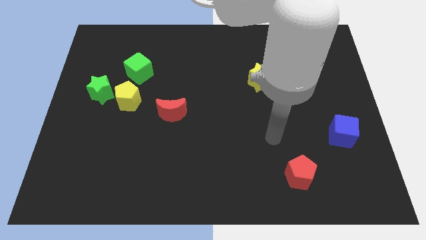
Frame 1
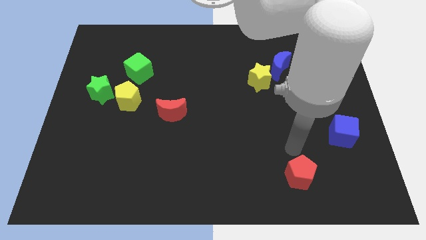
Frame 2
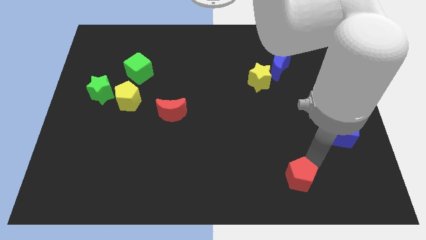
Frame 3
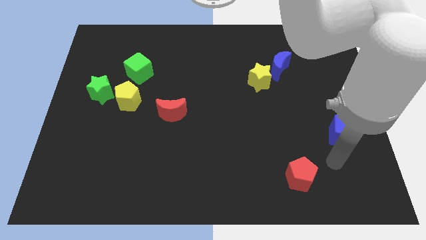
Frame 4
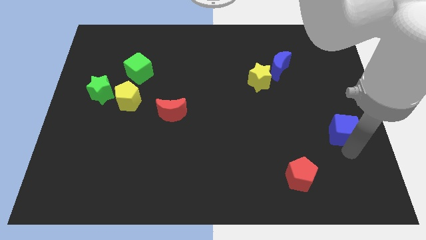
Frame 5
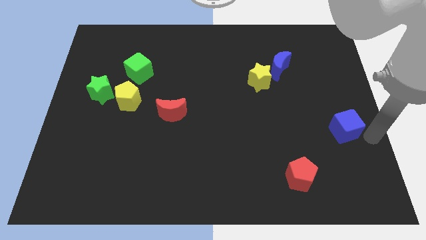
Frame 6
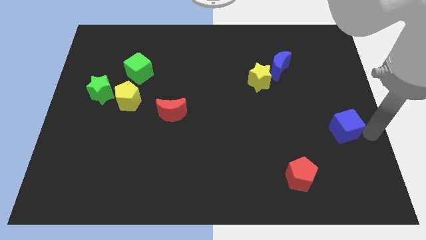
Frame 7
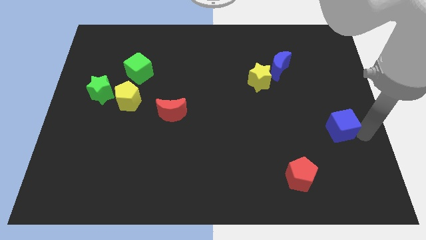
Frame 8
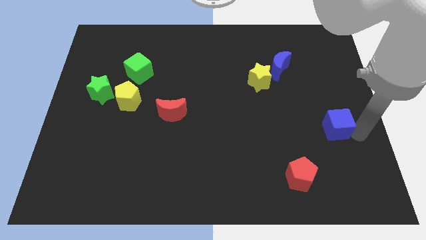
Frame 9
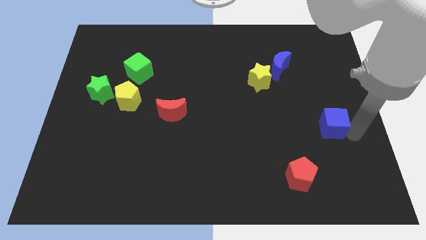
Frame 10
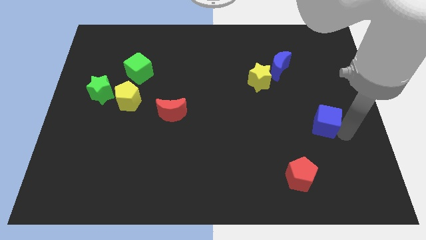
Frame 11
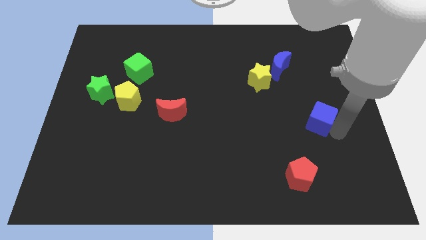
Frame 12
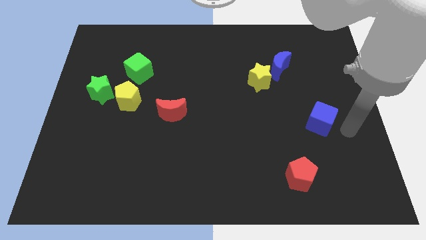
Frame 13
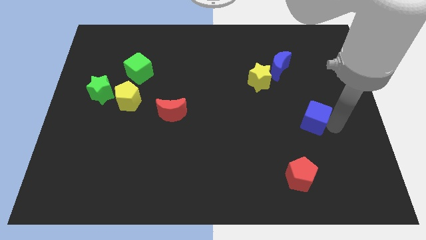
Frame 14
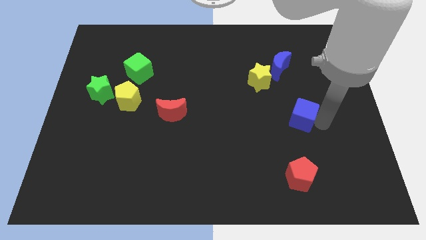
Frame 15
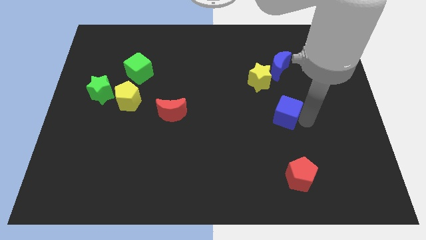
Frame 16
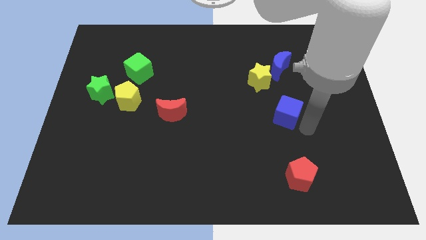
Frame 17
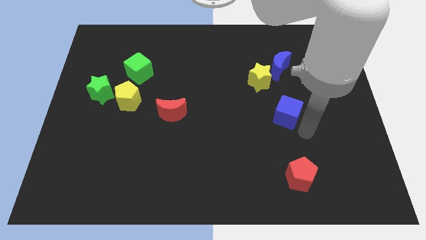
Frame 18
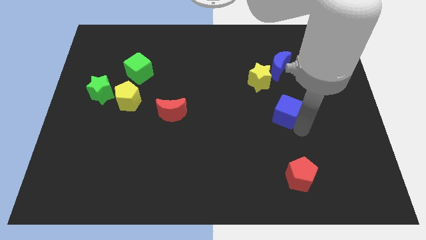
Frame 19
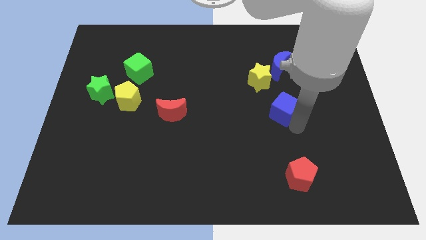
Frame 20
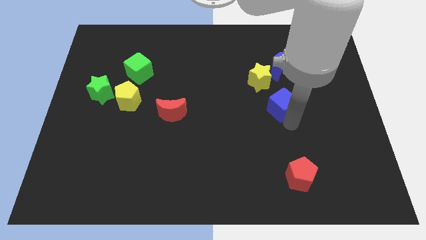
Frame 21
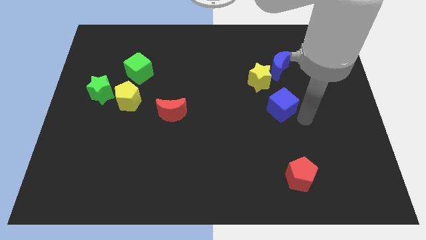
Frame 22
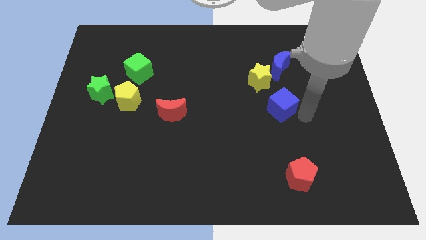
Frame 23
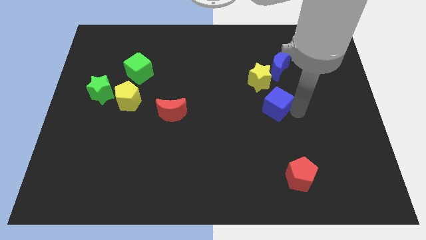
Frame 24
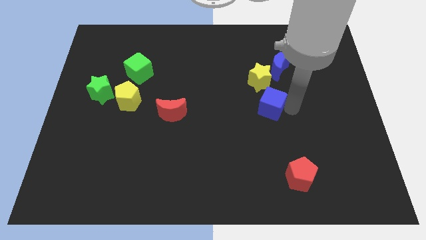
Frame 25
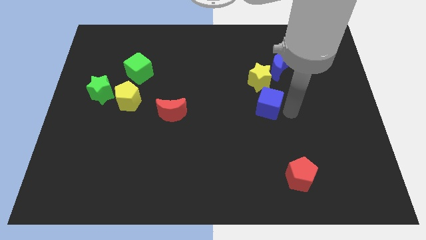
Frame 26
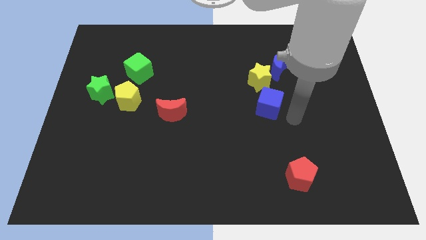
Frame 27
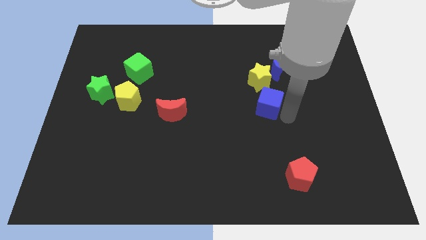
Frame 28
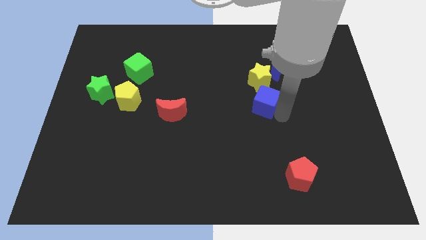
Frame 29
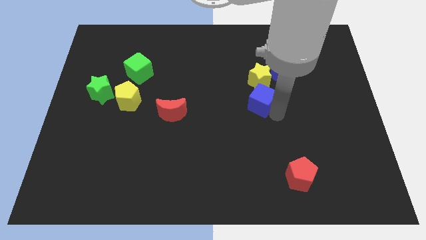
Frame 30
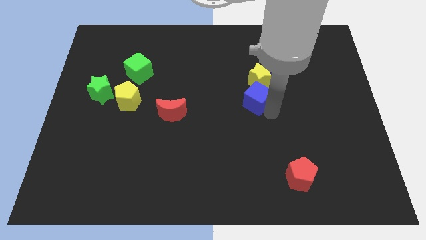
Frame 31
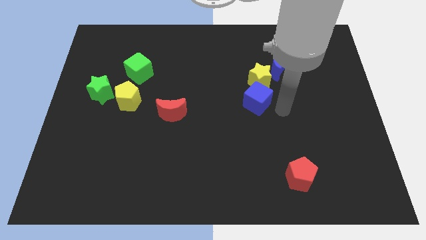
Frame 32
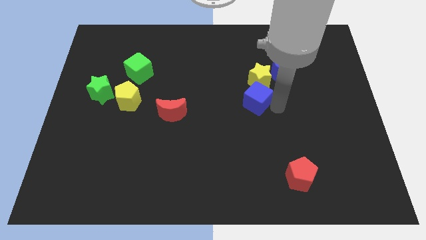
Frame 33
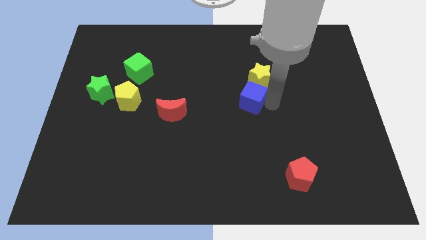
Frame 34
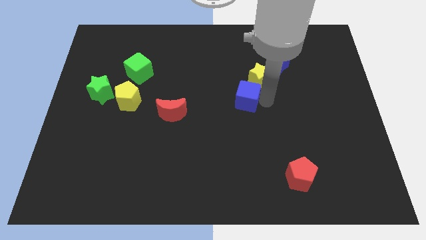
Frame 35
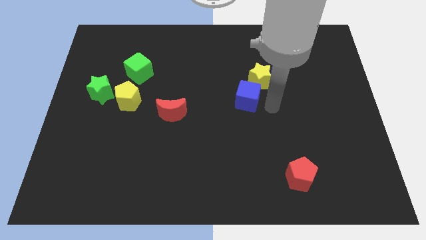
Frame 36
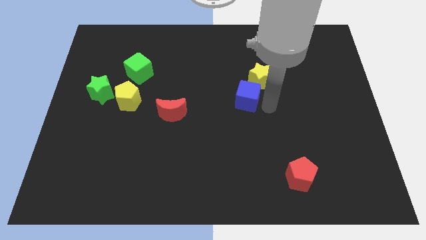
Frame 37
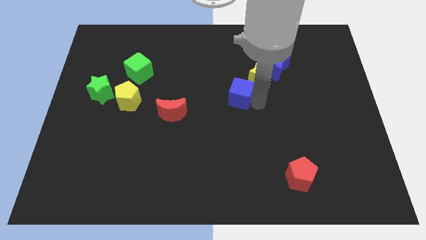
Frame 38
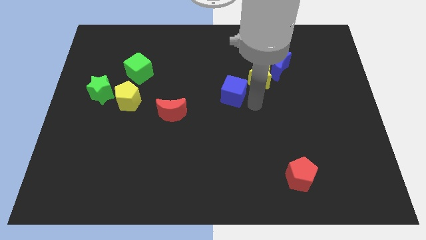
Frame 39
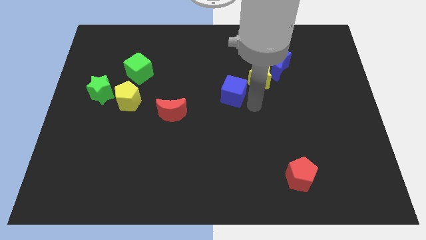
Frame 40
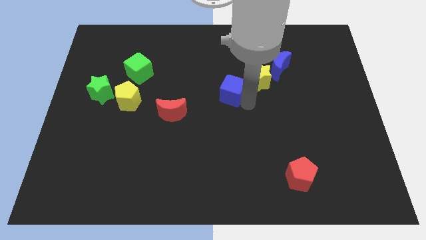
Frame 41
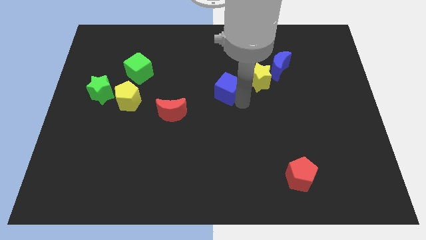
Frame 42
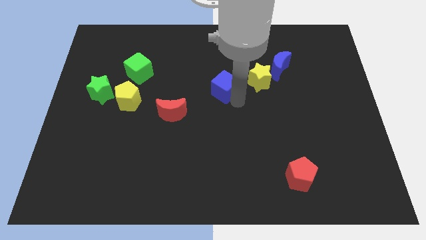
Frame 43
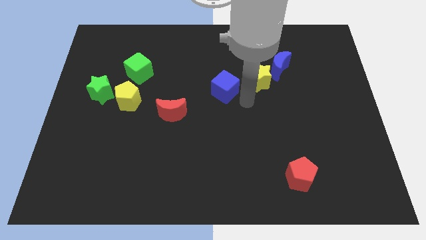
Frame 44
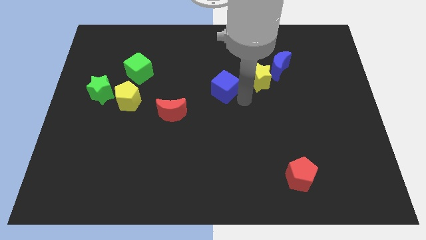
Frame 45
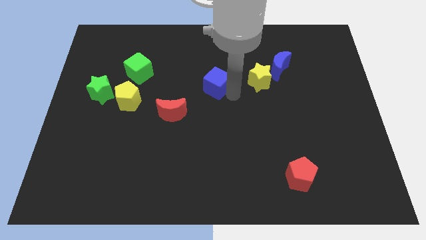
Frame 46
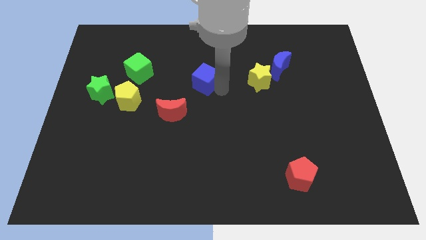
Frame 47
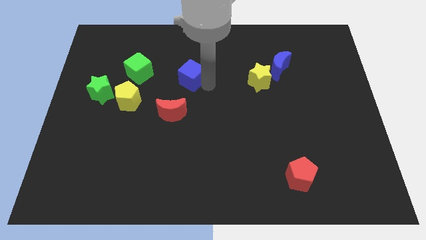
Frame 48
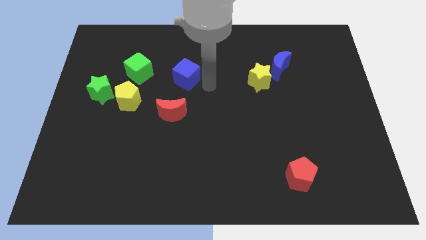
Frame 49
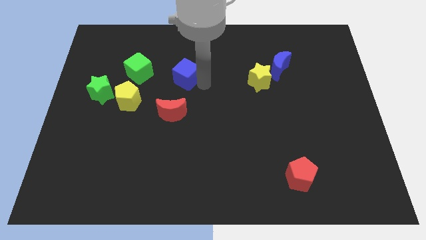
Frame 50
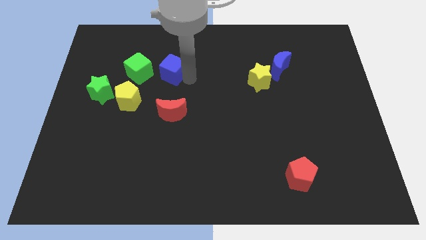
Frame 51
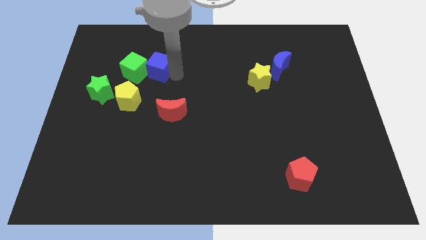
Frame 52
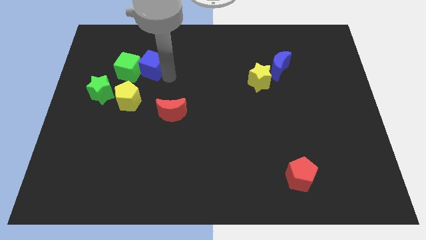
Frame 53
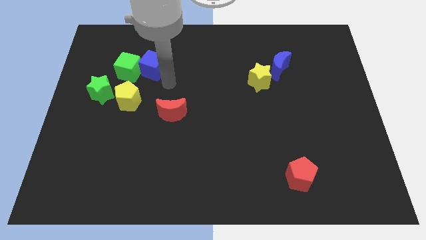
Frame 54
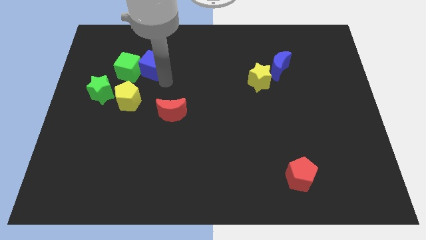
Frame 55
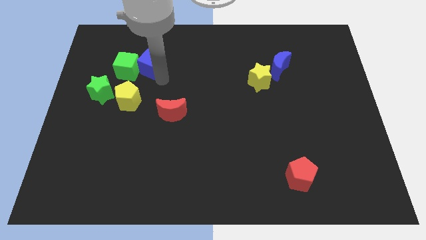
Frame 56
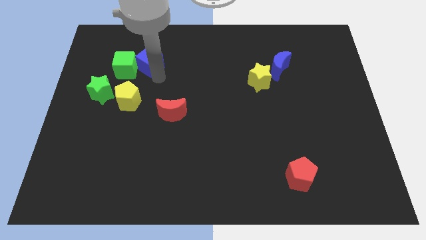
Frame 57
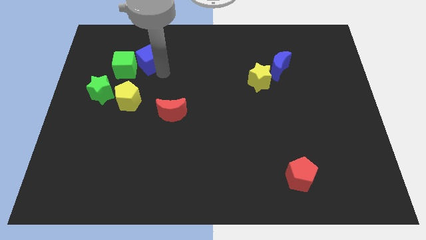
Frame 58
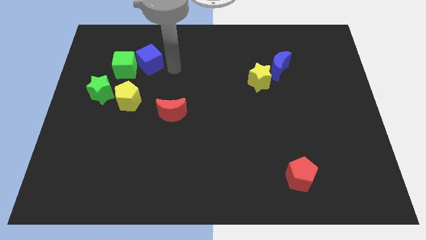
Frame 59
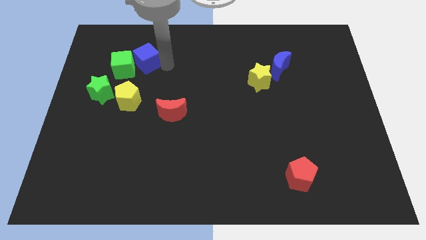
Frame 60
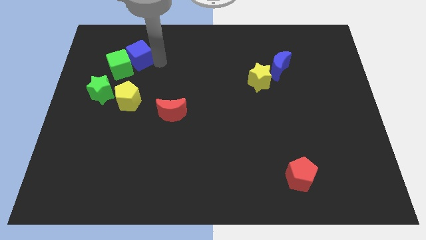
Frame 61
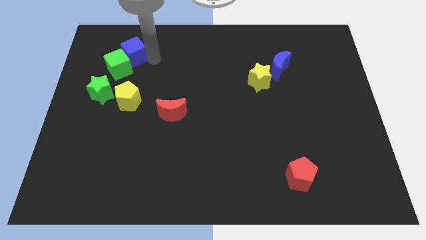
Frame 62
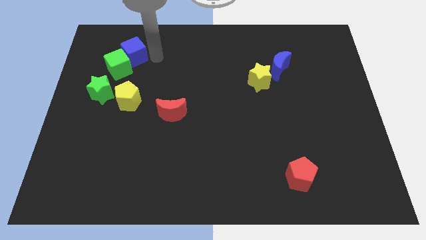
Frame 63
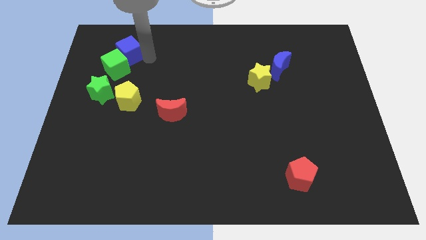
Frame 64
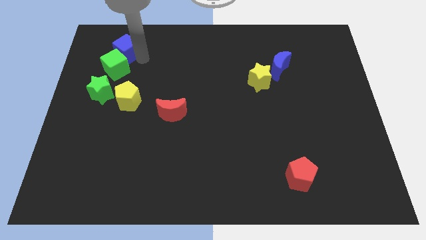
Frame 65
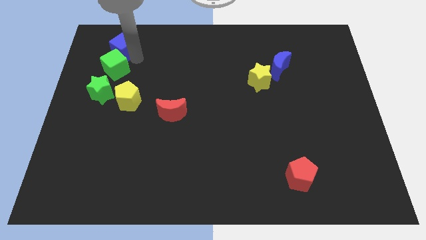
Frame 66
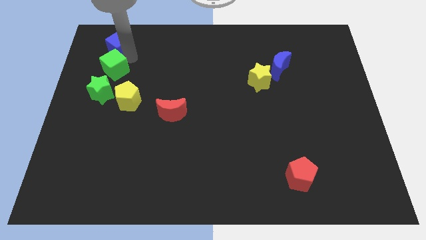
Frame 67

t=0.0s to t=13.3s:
slide the blue cube to the top left of the green cube
